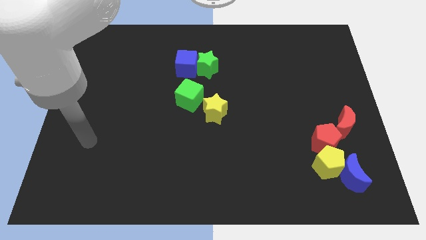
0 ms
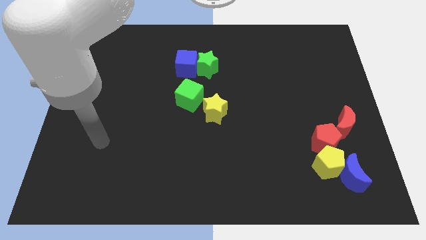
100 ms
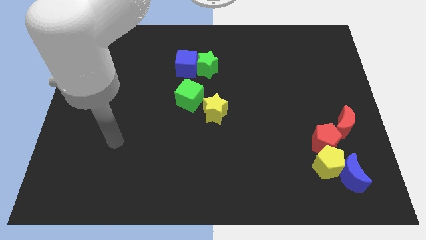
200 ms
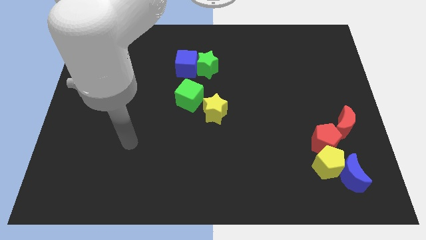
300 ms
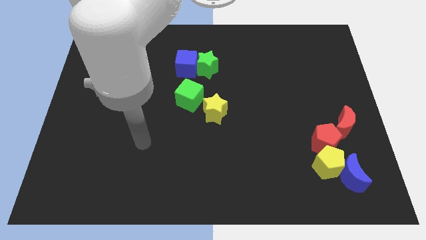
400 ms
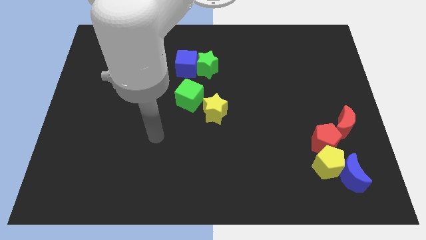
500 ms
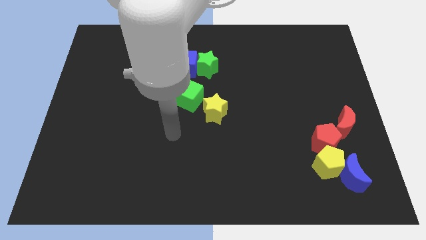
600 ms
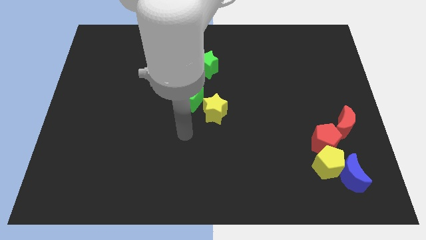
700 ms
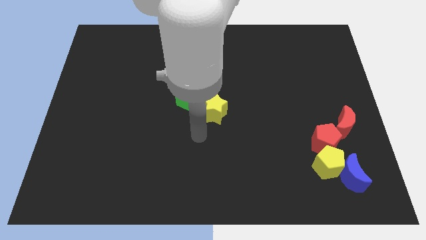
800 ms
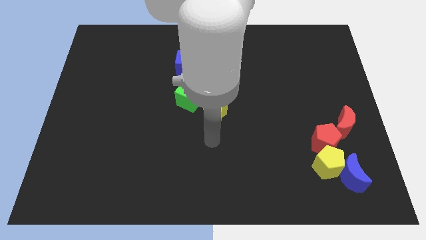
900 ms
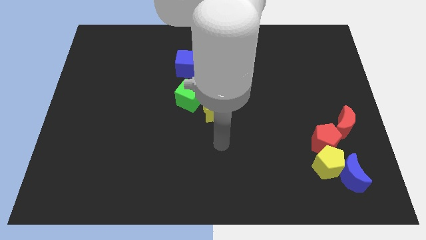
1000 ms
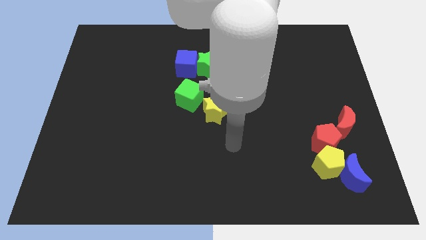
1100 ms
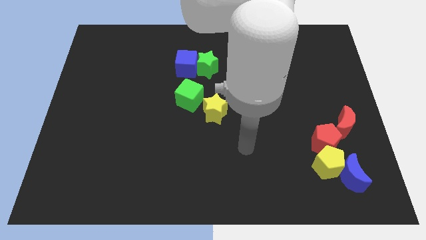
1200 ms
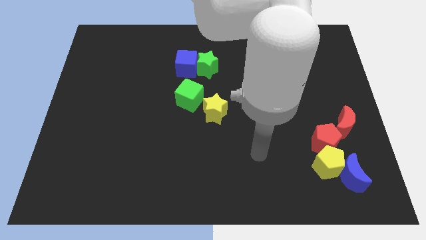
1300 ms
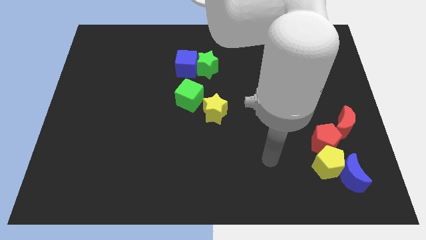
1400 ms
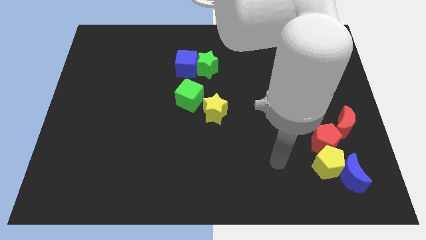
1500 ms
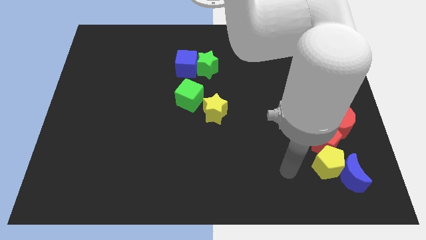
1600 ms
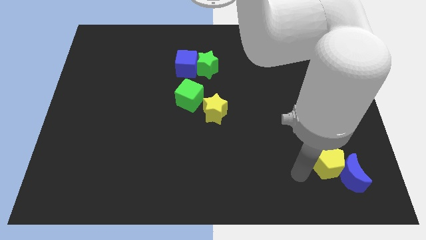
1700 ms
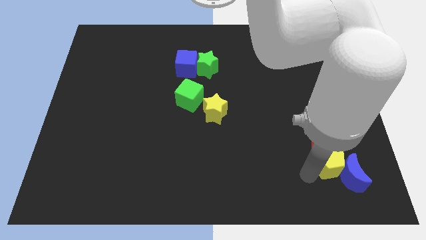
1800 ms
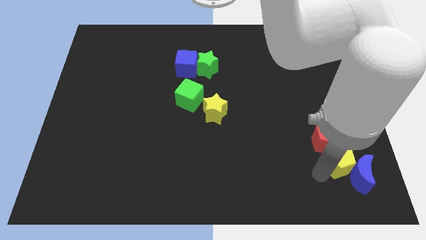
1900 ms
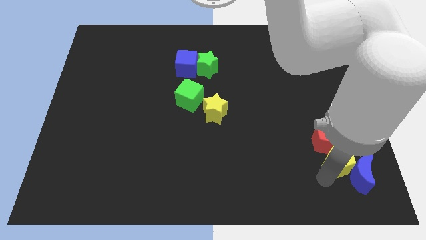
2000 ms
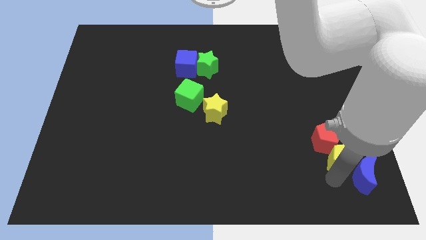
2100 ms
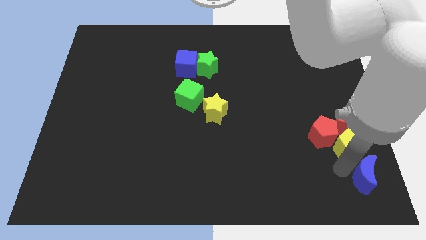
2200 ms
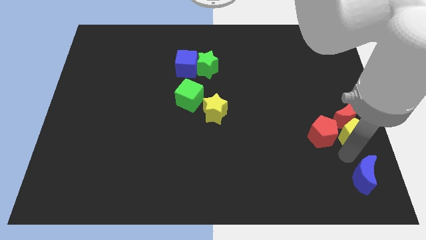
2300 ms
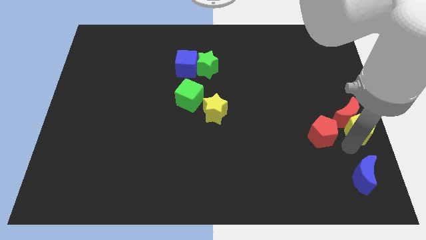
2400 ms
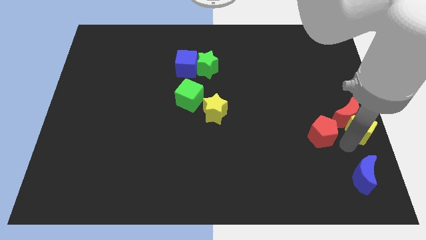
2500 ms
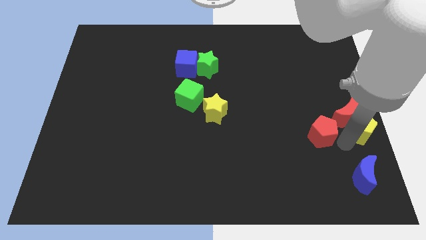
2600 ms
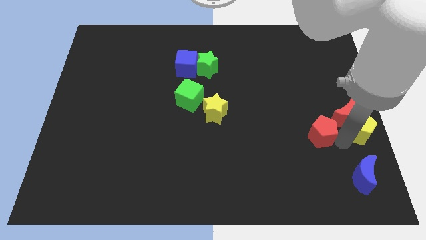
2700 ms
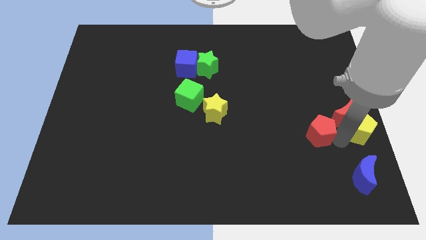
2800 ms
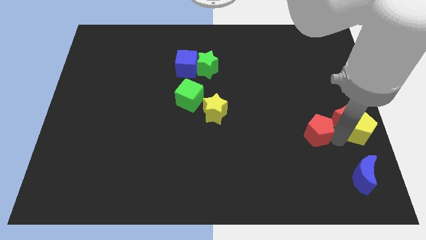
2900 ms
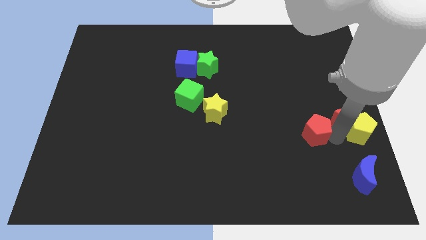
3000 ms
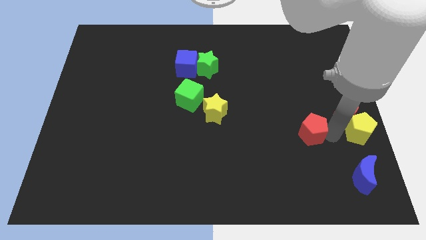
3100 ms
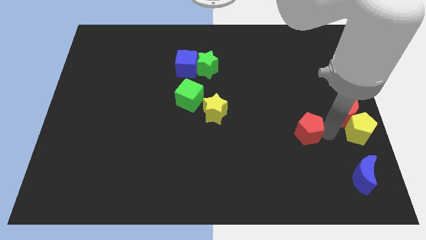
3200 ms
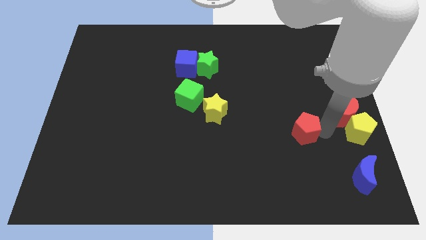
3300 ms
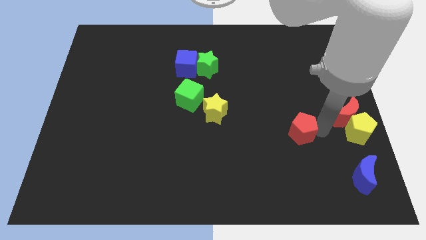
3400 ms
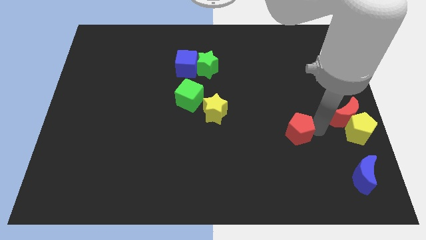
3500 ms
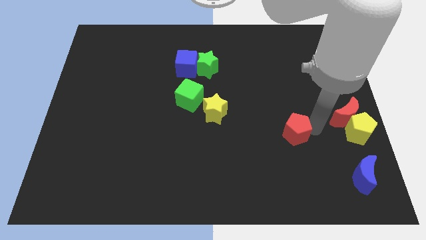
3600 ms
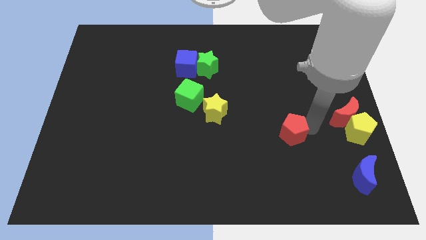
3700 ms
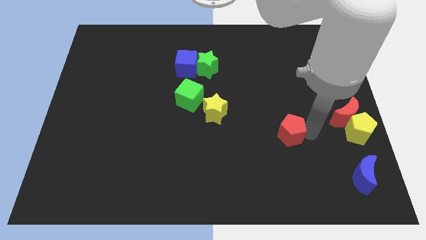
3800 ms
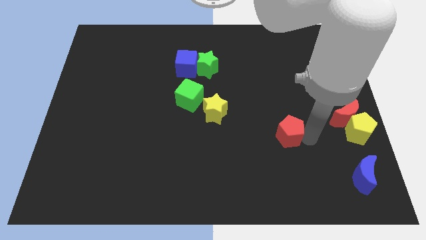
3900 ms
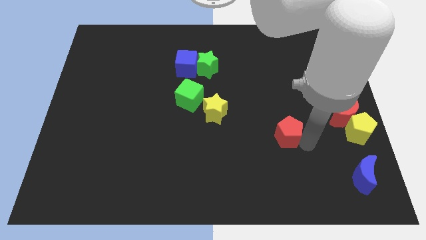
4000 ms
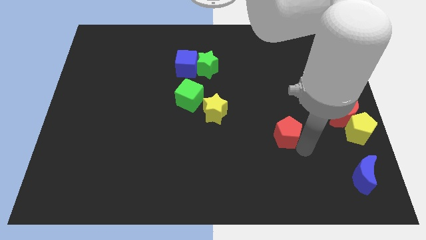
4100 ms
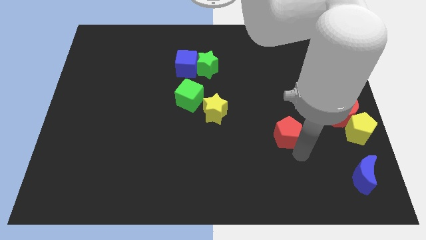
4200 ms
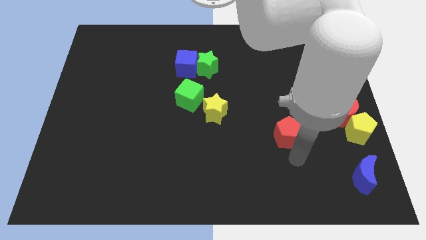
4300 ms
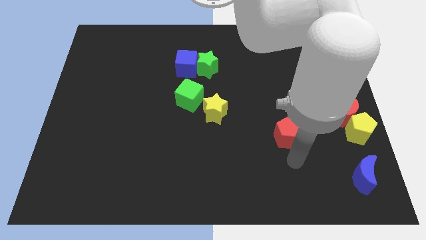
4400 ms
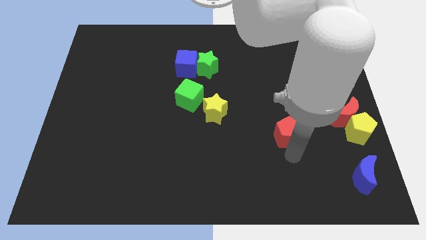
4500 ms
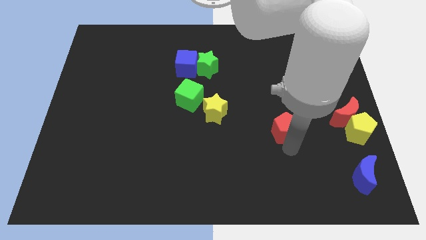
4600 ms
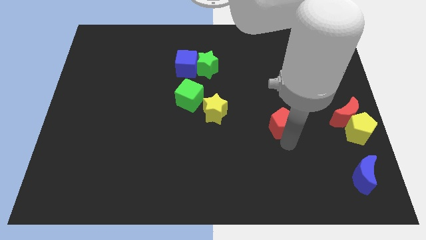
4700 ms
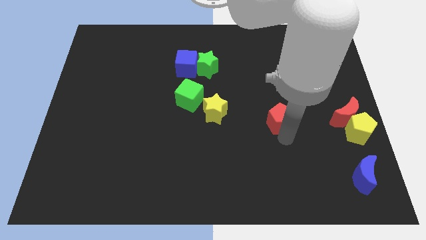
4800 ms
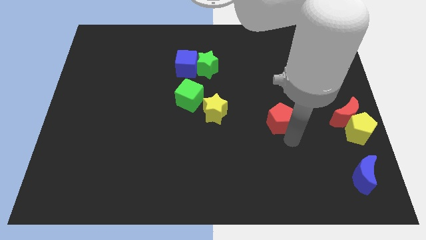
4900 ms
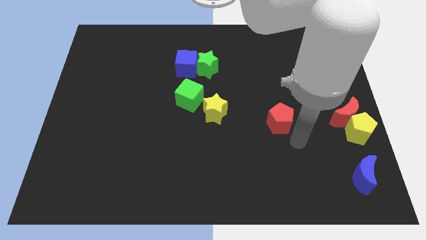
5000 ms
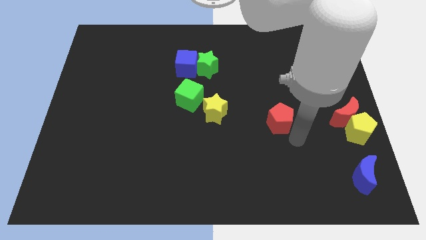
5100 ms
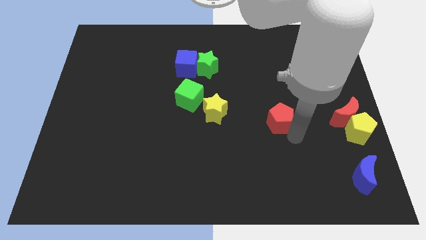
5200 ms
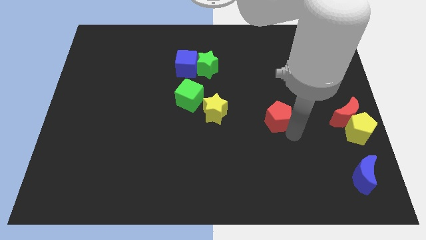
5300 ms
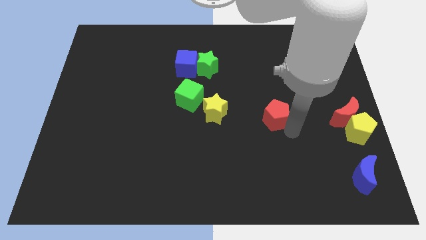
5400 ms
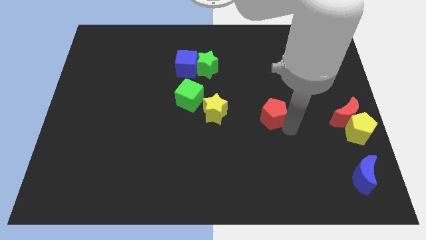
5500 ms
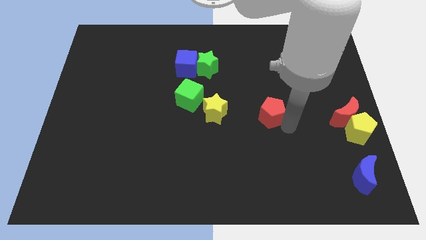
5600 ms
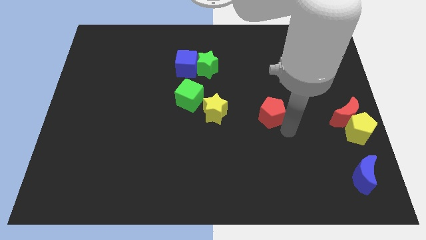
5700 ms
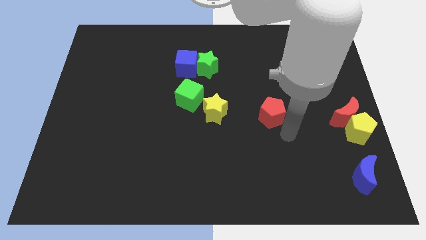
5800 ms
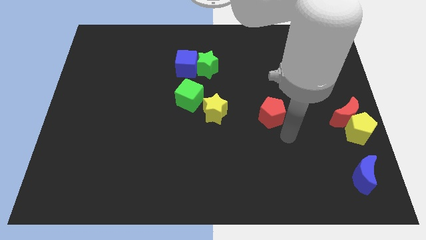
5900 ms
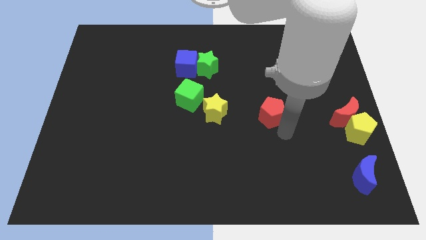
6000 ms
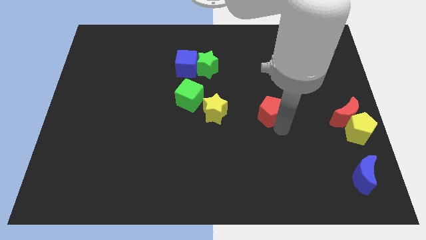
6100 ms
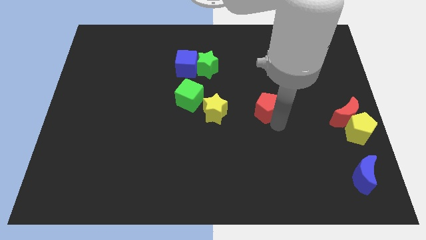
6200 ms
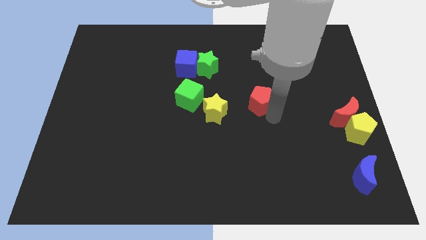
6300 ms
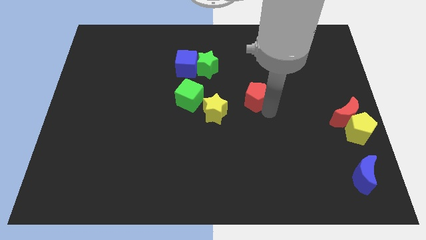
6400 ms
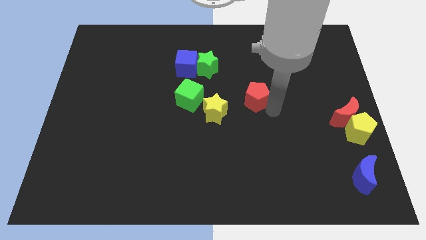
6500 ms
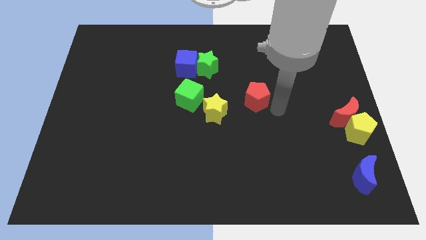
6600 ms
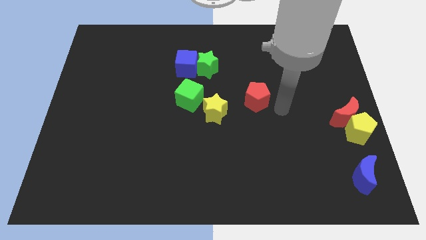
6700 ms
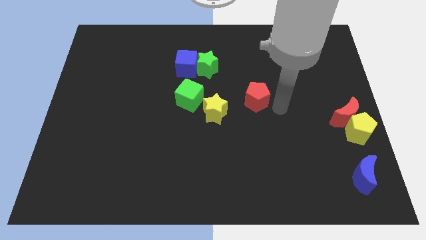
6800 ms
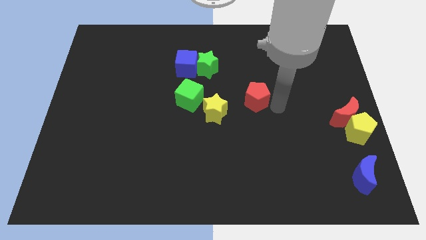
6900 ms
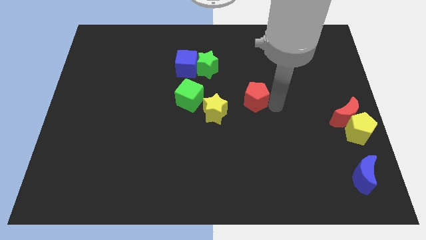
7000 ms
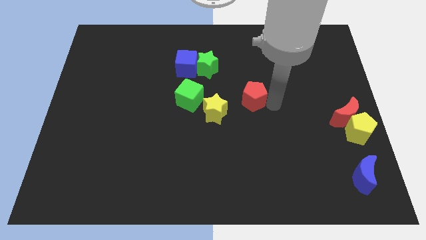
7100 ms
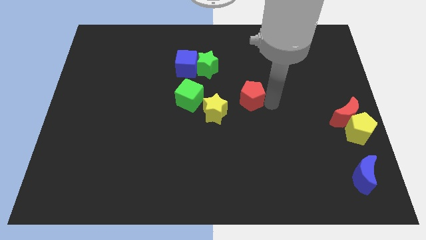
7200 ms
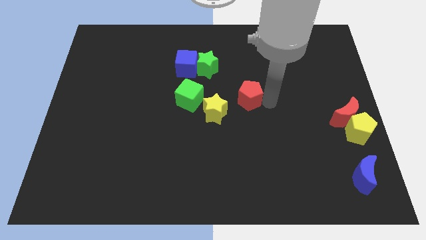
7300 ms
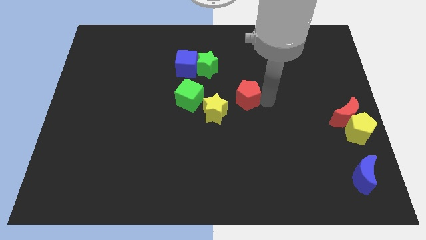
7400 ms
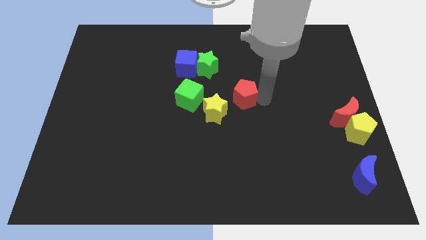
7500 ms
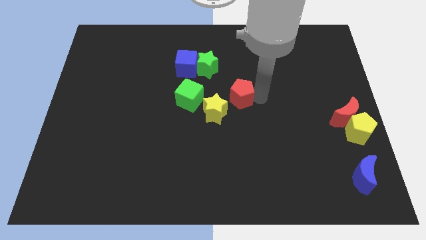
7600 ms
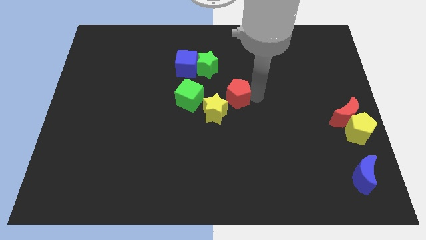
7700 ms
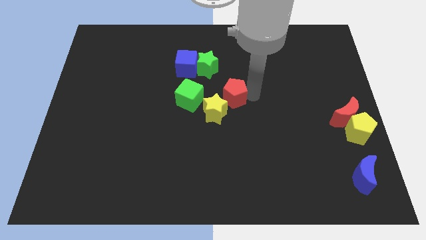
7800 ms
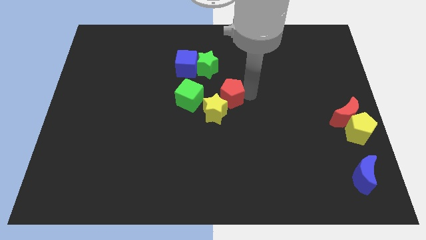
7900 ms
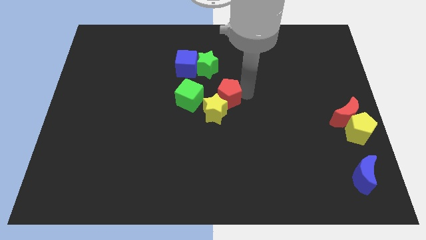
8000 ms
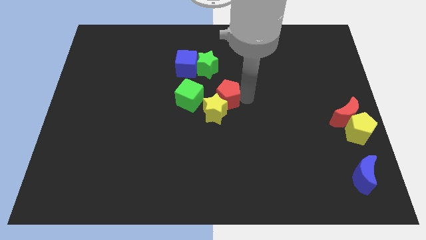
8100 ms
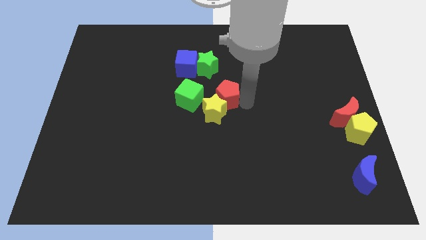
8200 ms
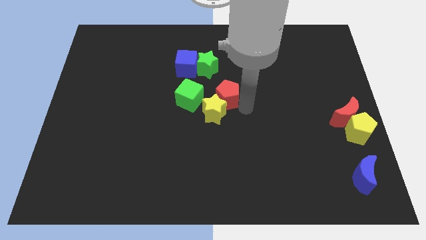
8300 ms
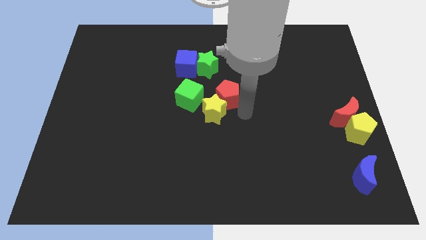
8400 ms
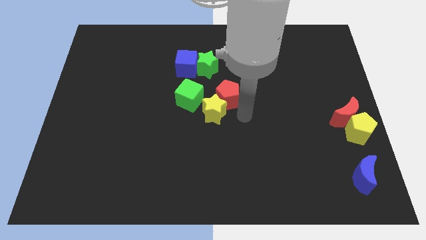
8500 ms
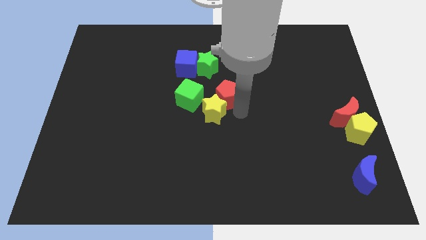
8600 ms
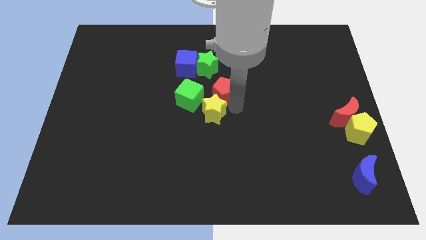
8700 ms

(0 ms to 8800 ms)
push the red pentagon diagonally up and to the right of the green cube
